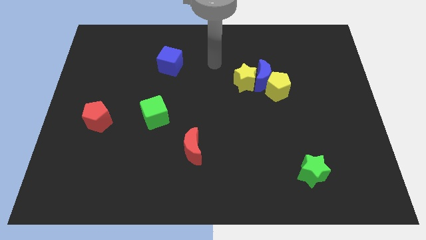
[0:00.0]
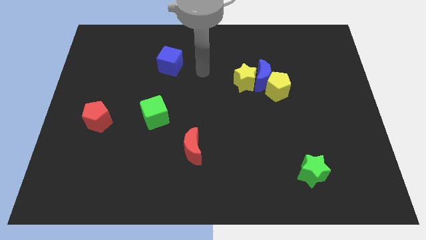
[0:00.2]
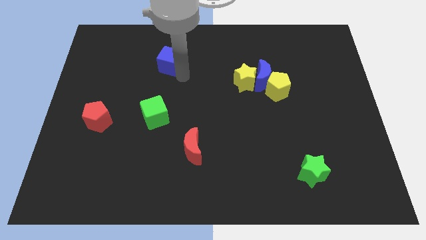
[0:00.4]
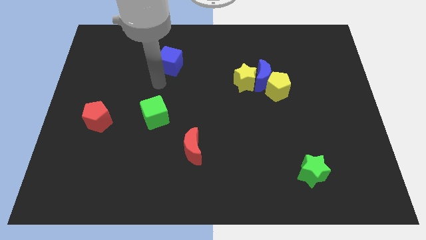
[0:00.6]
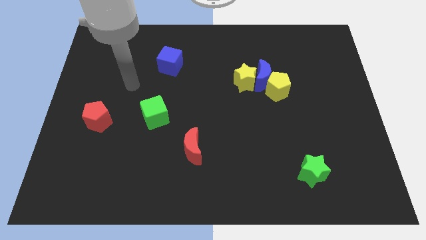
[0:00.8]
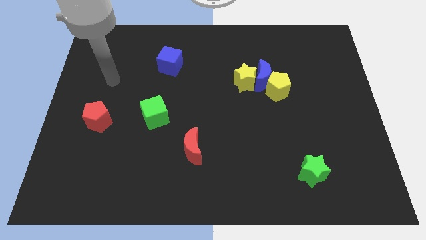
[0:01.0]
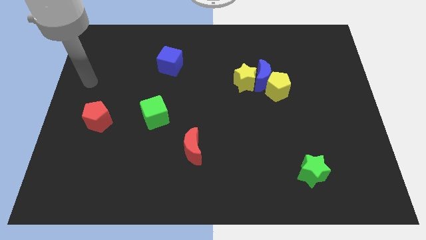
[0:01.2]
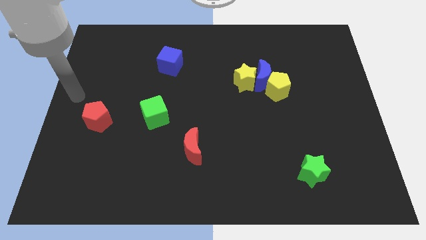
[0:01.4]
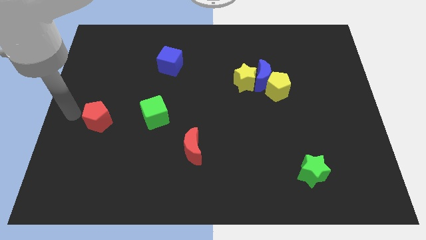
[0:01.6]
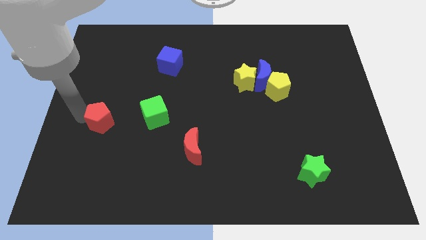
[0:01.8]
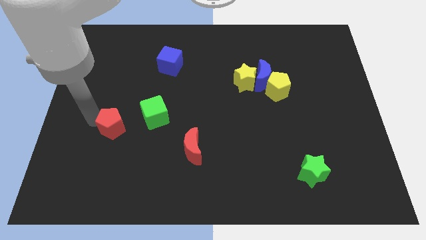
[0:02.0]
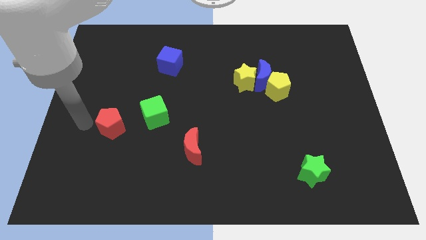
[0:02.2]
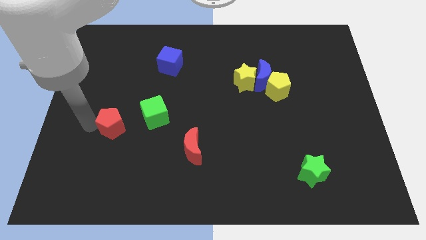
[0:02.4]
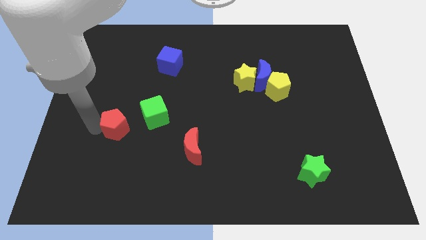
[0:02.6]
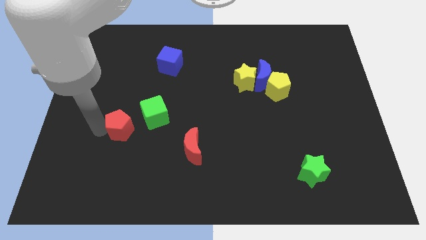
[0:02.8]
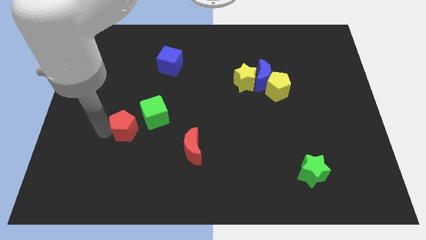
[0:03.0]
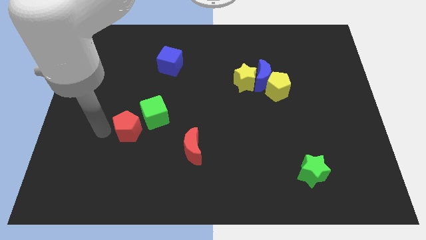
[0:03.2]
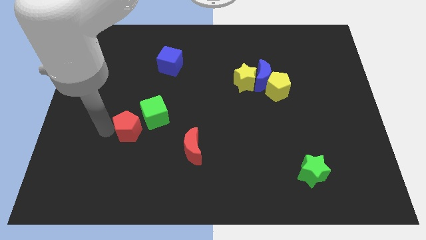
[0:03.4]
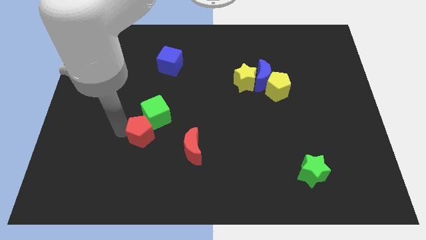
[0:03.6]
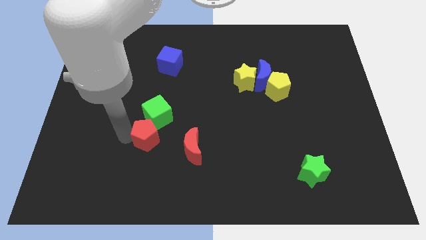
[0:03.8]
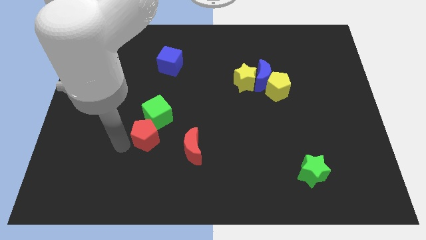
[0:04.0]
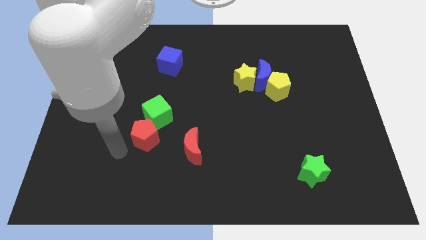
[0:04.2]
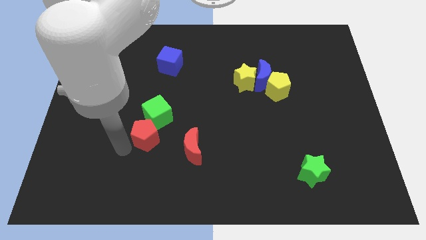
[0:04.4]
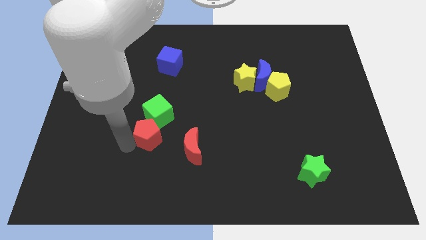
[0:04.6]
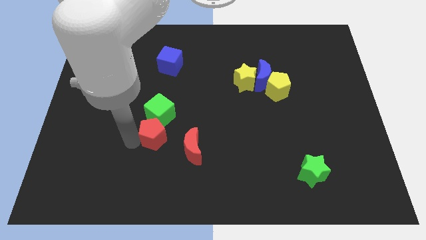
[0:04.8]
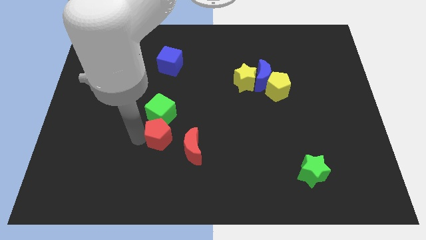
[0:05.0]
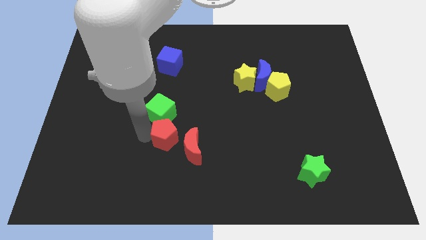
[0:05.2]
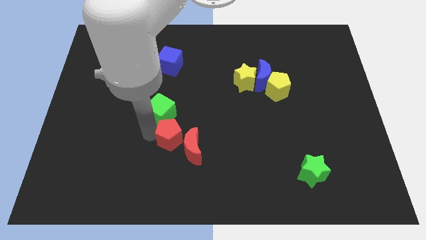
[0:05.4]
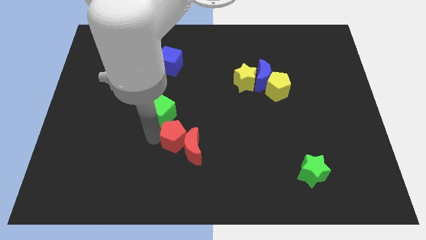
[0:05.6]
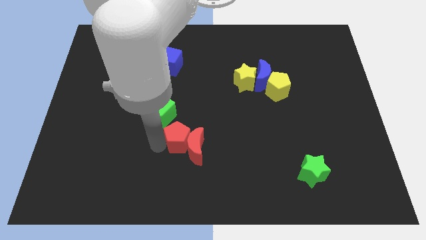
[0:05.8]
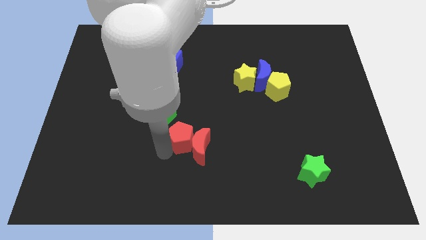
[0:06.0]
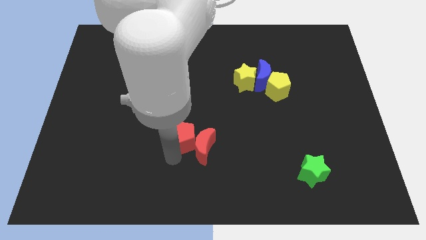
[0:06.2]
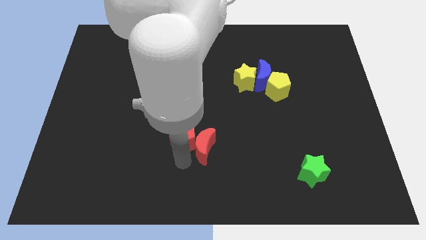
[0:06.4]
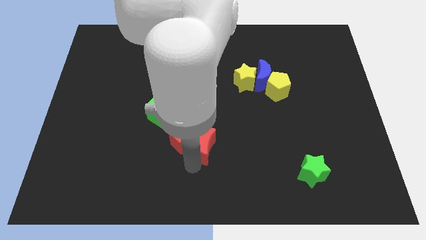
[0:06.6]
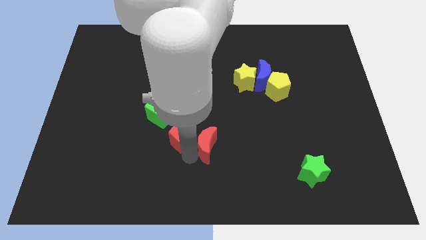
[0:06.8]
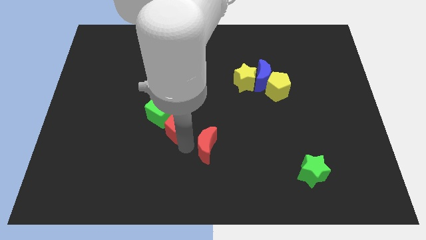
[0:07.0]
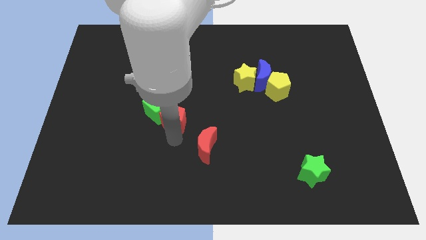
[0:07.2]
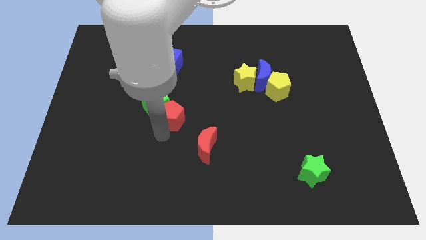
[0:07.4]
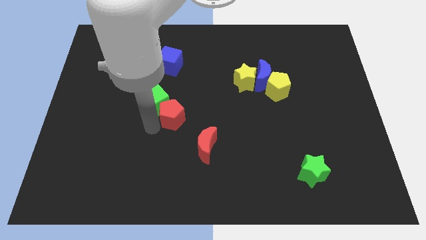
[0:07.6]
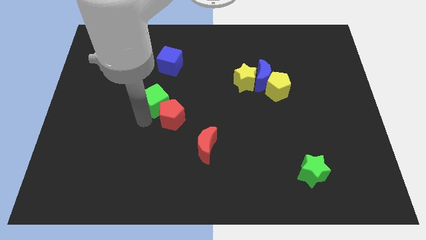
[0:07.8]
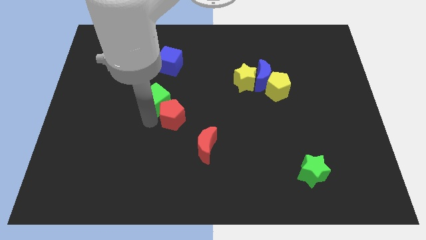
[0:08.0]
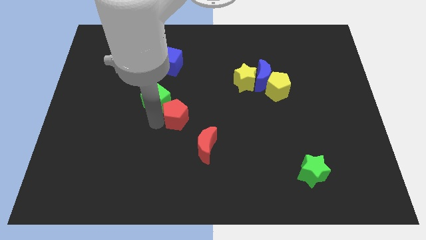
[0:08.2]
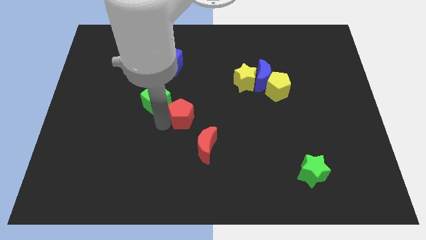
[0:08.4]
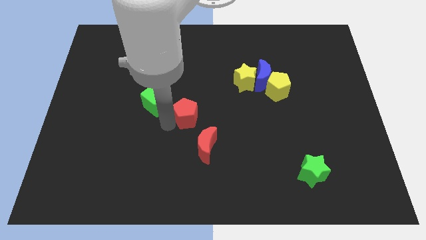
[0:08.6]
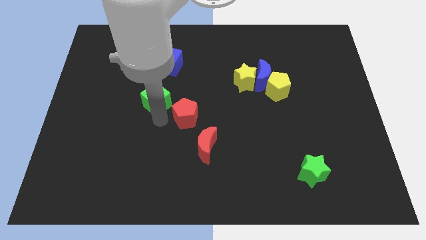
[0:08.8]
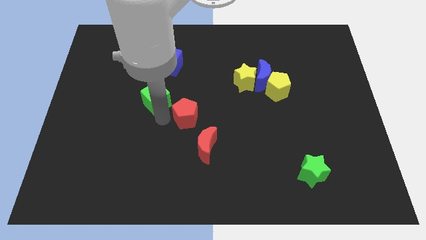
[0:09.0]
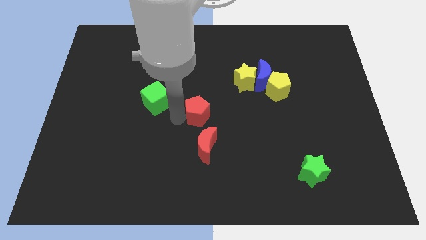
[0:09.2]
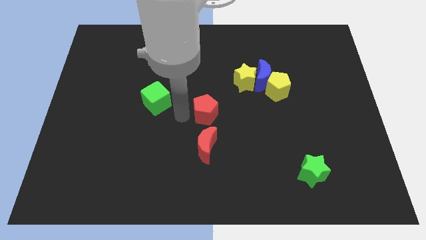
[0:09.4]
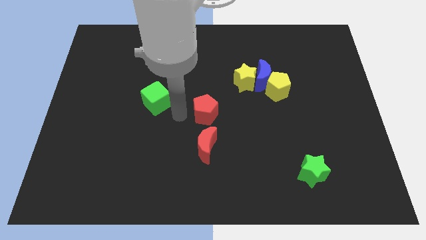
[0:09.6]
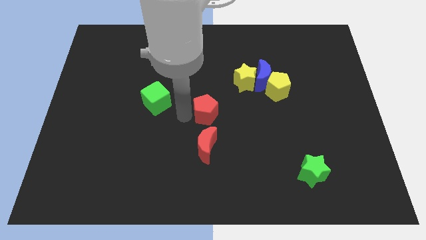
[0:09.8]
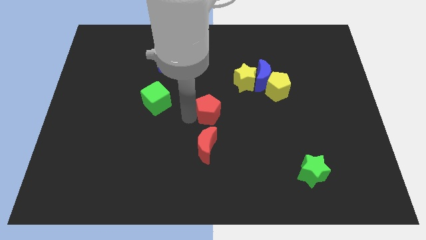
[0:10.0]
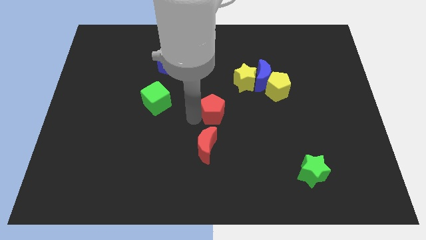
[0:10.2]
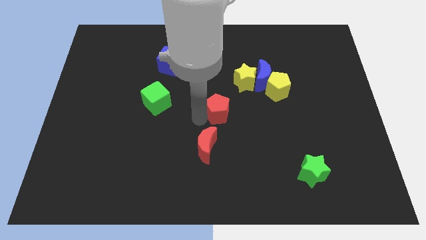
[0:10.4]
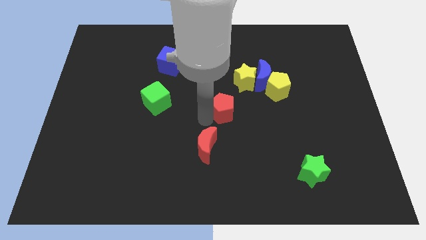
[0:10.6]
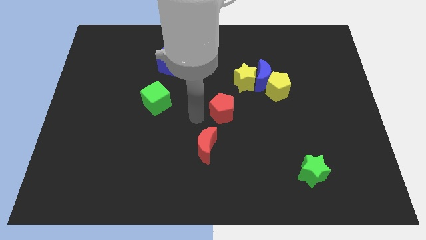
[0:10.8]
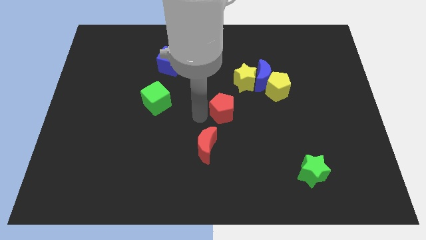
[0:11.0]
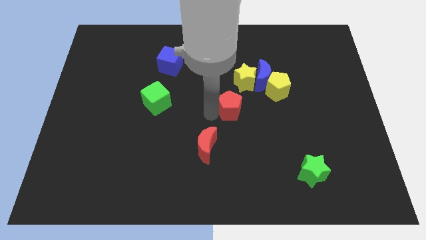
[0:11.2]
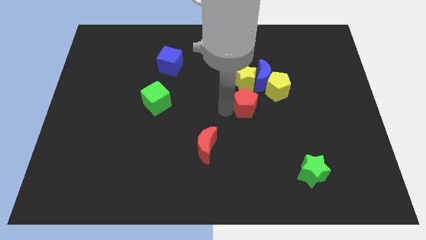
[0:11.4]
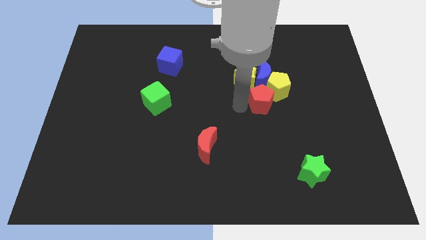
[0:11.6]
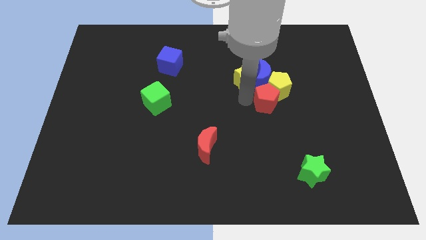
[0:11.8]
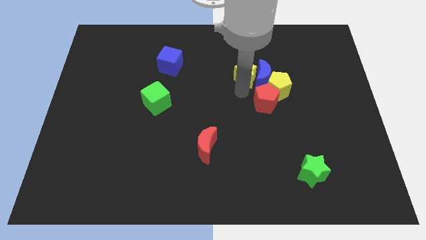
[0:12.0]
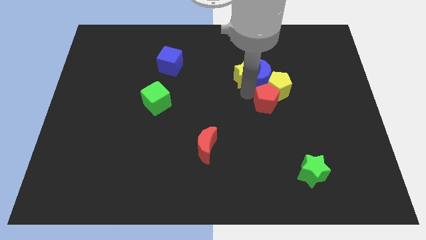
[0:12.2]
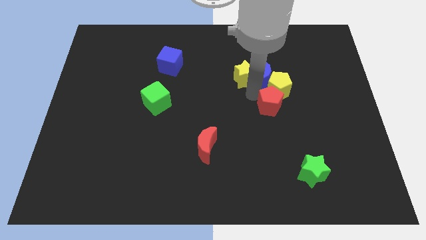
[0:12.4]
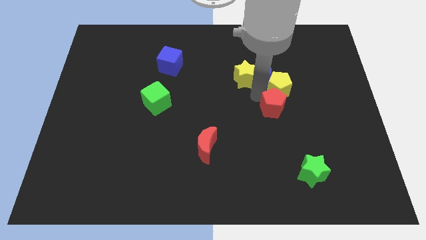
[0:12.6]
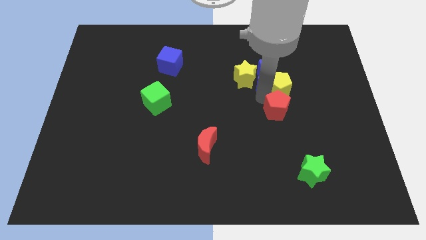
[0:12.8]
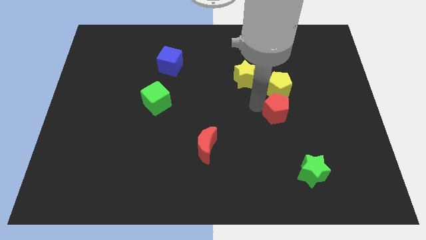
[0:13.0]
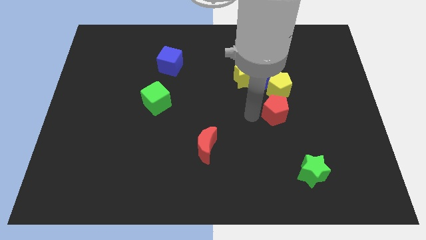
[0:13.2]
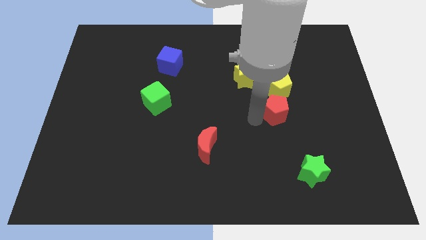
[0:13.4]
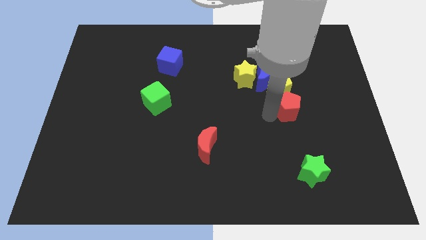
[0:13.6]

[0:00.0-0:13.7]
put the red pentagon to the bottom right side of the yellow pentagon
